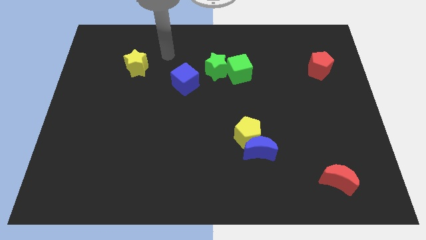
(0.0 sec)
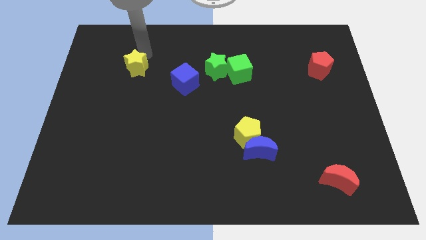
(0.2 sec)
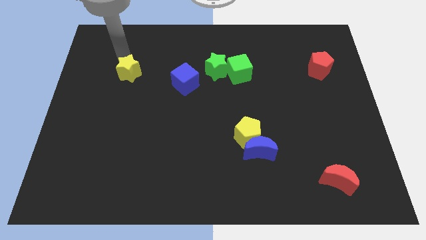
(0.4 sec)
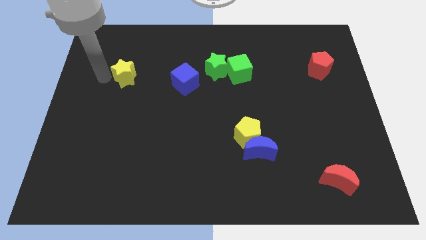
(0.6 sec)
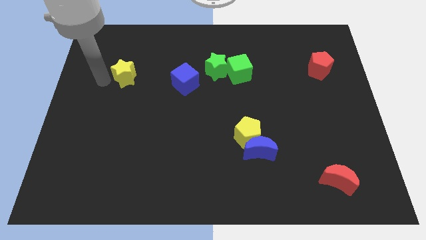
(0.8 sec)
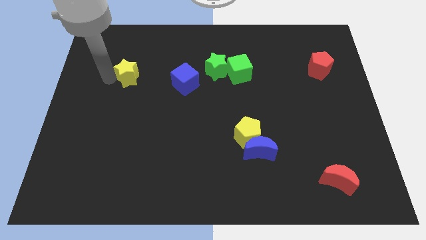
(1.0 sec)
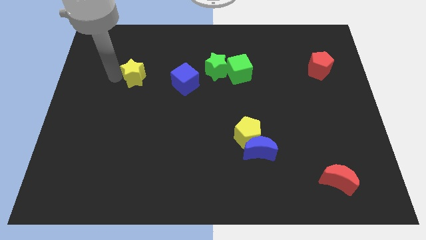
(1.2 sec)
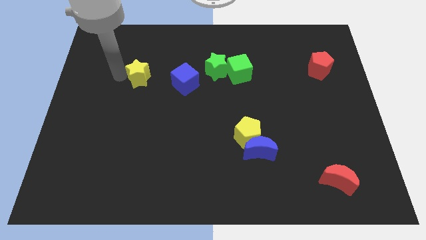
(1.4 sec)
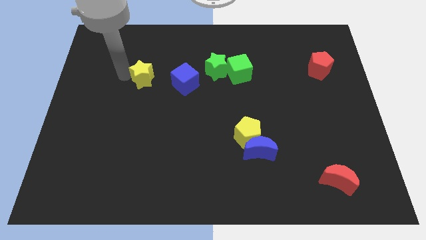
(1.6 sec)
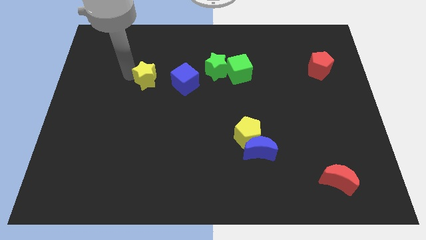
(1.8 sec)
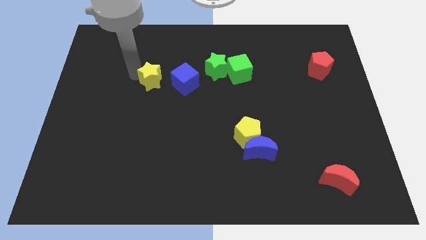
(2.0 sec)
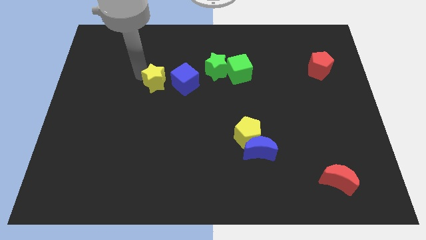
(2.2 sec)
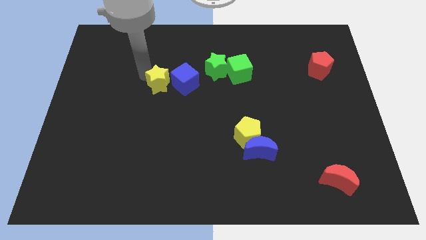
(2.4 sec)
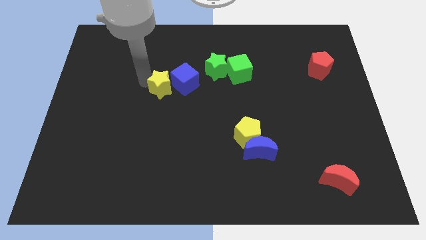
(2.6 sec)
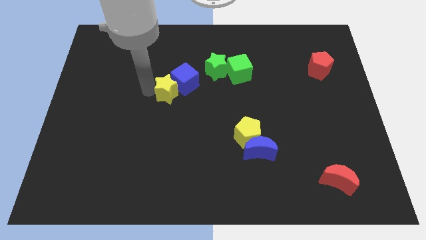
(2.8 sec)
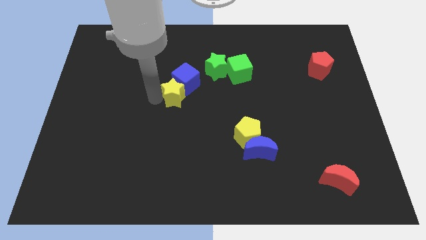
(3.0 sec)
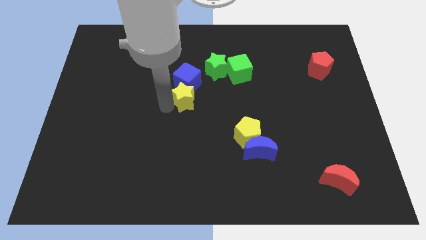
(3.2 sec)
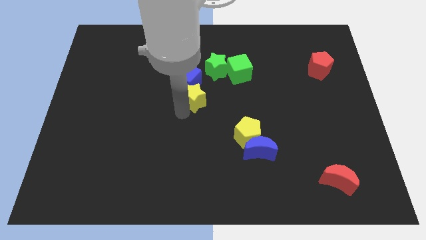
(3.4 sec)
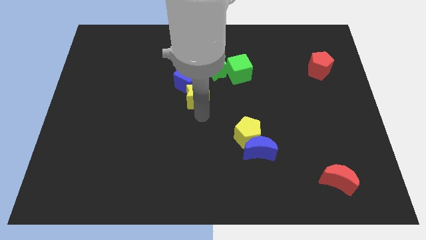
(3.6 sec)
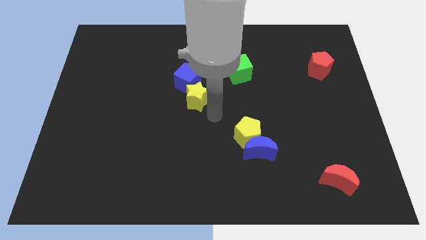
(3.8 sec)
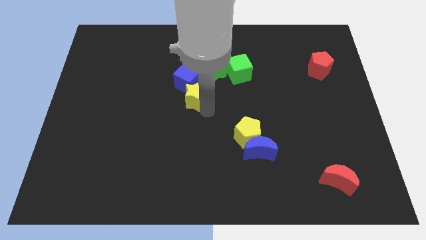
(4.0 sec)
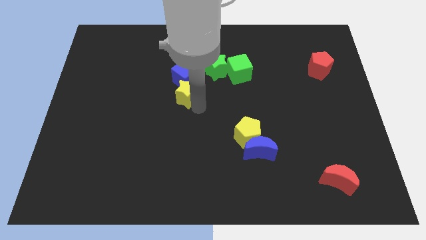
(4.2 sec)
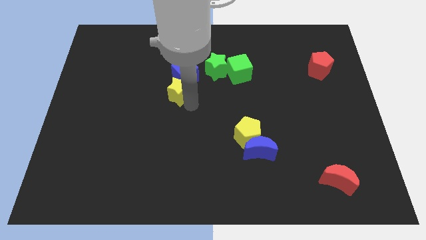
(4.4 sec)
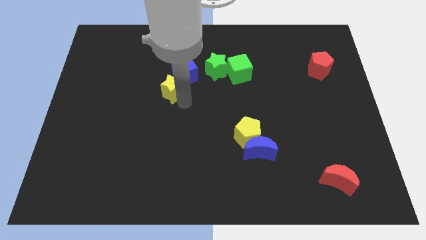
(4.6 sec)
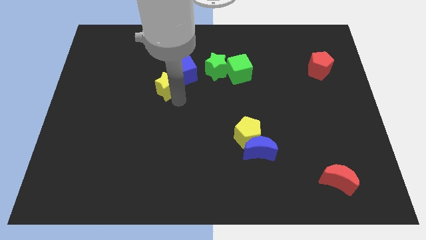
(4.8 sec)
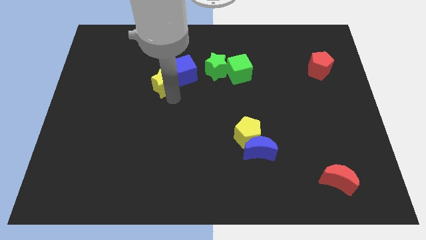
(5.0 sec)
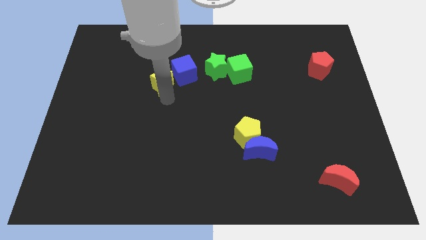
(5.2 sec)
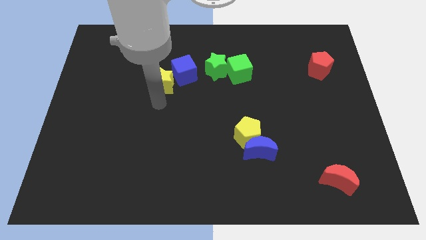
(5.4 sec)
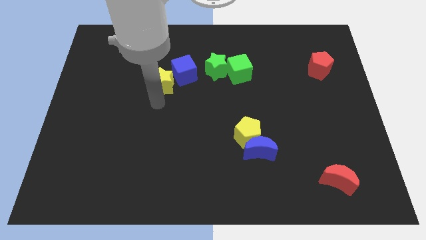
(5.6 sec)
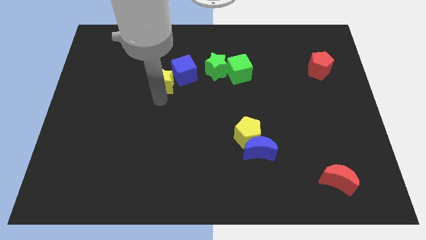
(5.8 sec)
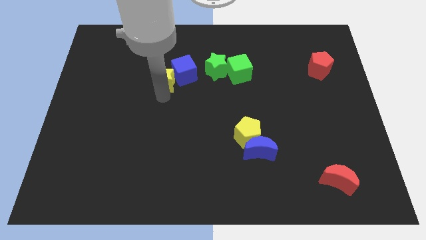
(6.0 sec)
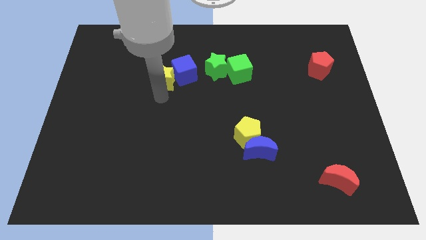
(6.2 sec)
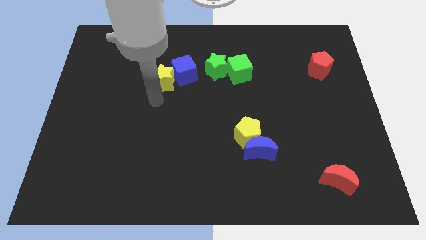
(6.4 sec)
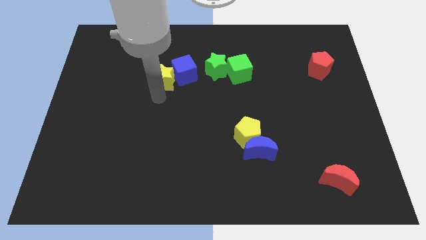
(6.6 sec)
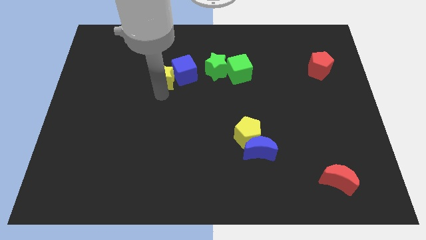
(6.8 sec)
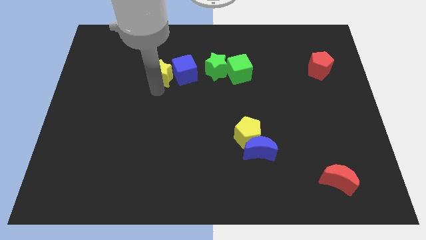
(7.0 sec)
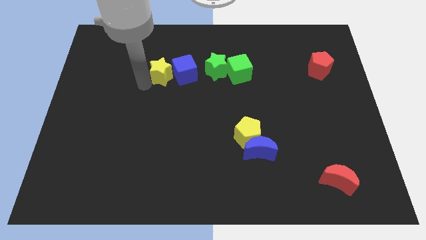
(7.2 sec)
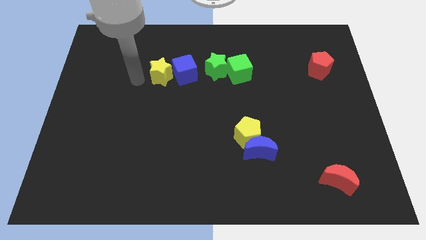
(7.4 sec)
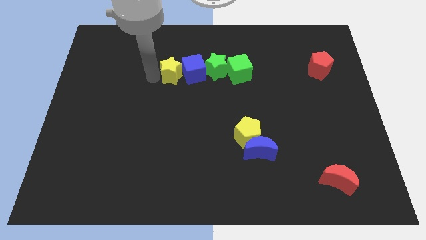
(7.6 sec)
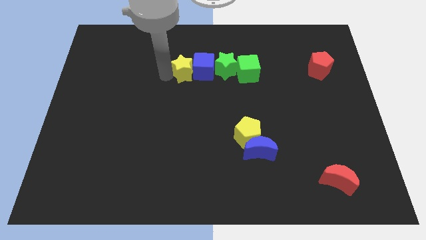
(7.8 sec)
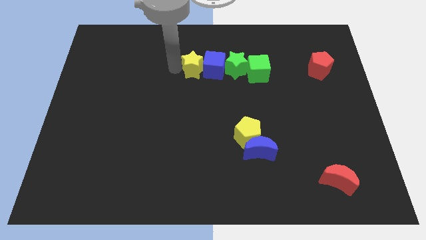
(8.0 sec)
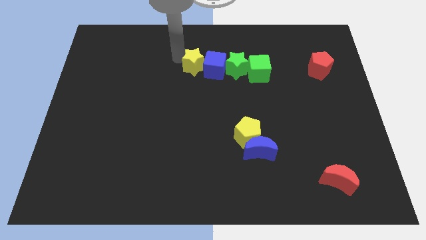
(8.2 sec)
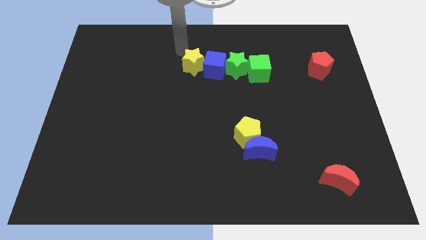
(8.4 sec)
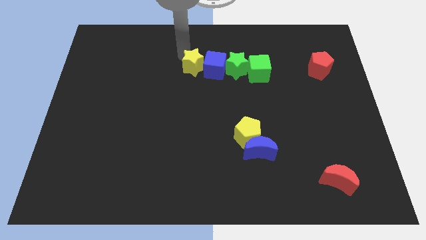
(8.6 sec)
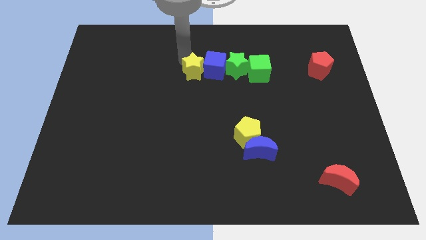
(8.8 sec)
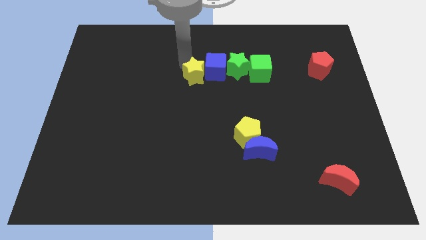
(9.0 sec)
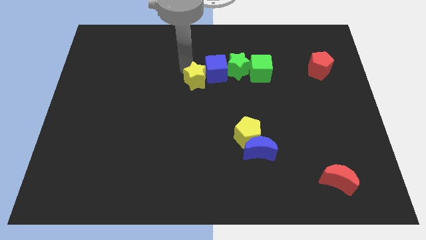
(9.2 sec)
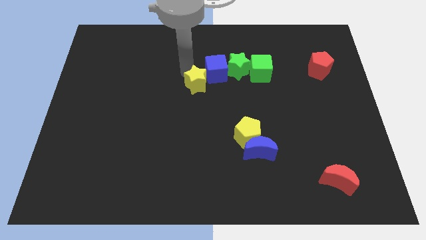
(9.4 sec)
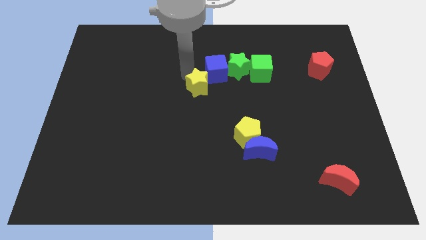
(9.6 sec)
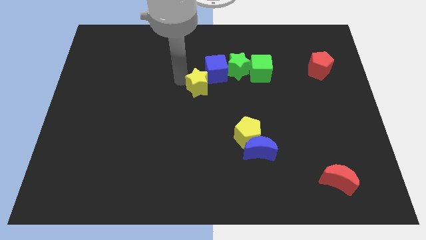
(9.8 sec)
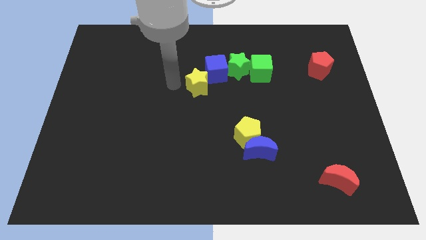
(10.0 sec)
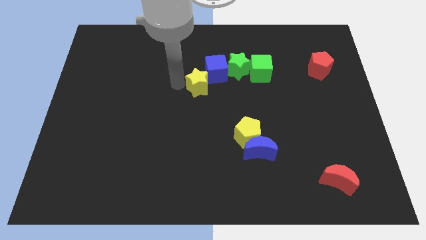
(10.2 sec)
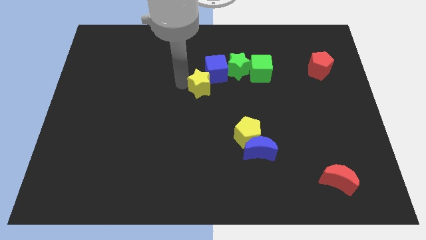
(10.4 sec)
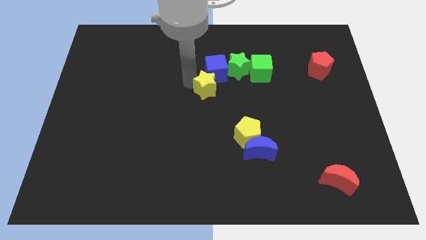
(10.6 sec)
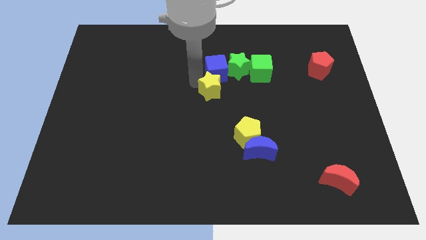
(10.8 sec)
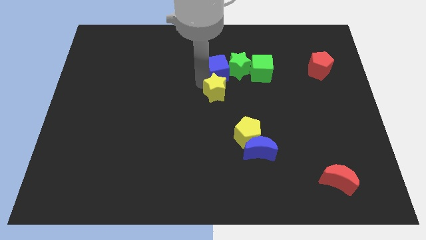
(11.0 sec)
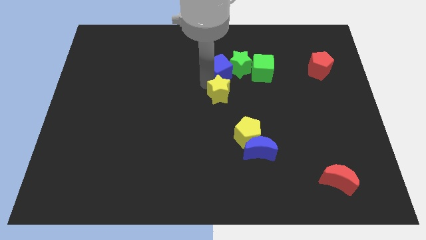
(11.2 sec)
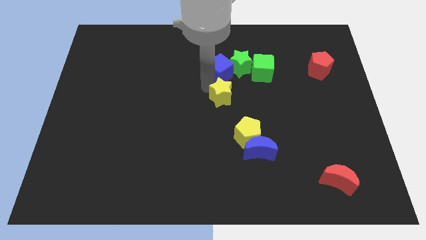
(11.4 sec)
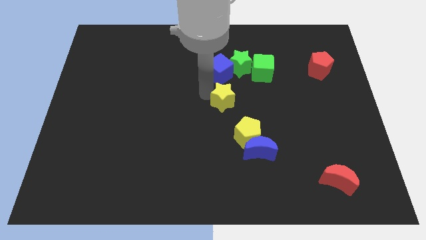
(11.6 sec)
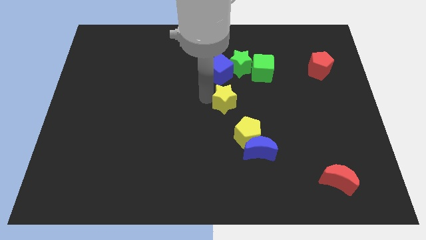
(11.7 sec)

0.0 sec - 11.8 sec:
push the yellow star to the top of the yellow pentagon

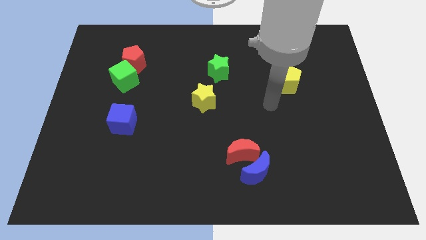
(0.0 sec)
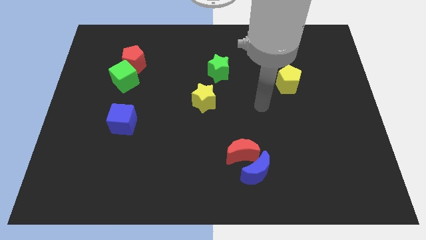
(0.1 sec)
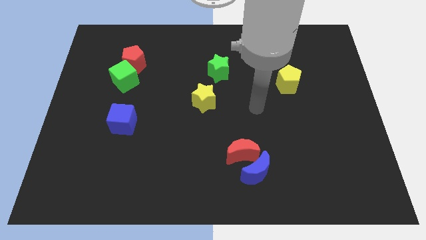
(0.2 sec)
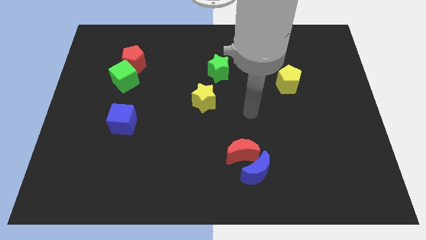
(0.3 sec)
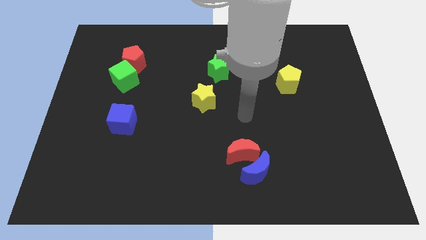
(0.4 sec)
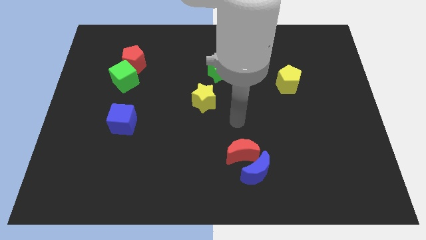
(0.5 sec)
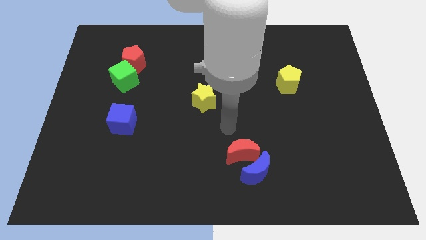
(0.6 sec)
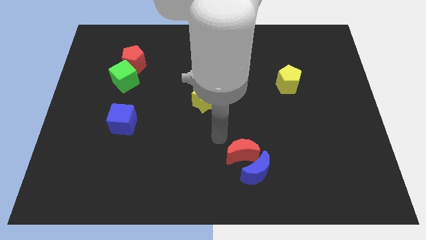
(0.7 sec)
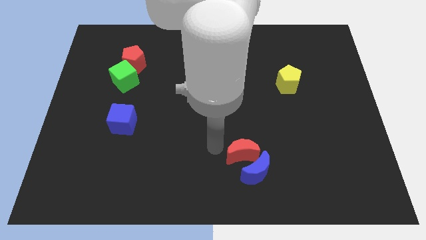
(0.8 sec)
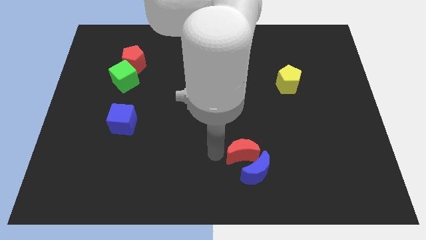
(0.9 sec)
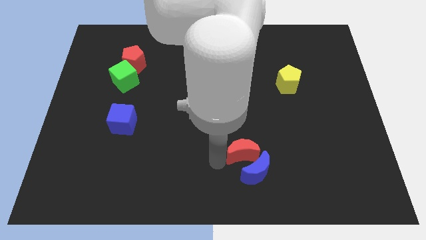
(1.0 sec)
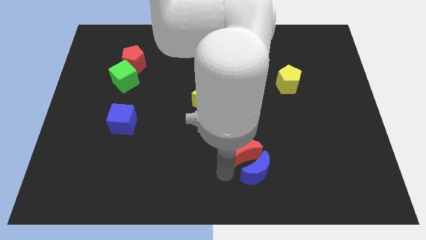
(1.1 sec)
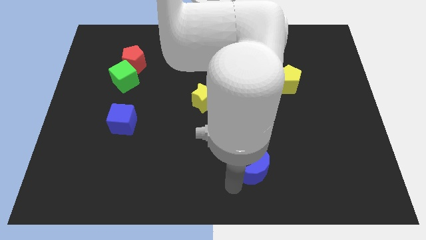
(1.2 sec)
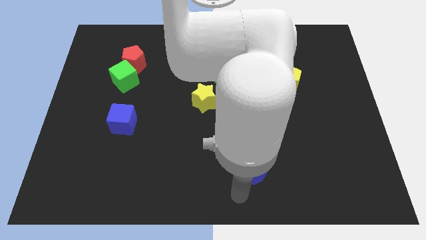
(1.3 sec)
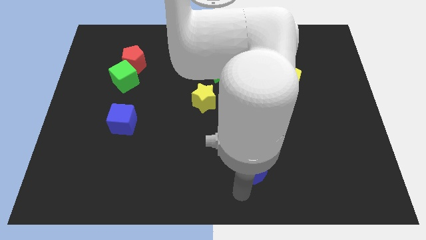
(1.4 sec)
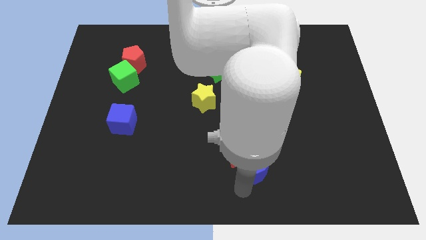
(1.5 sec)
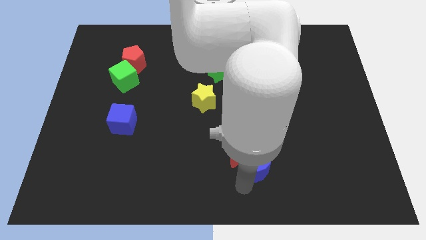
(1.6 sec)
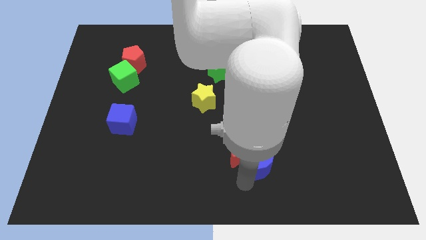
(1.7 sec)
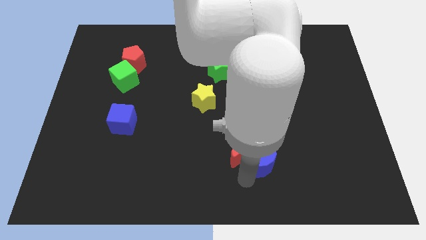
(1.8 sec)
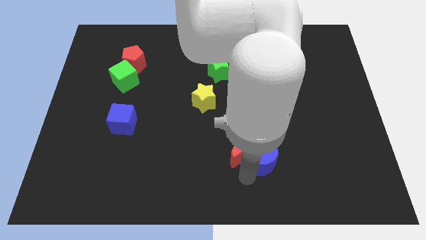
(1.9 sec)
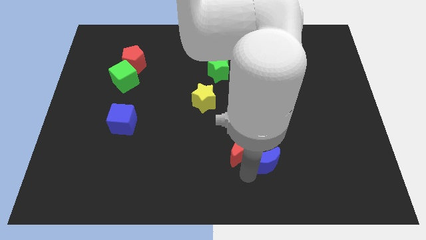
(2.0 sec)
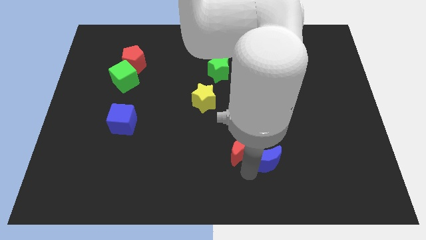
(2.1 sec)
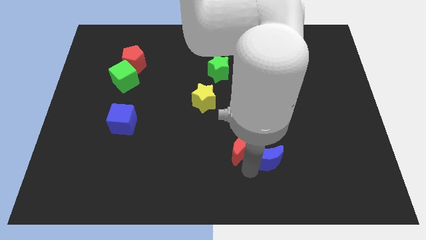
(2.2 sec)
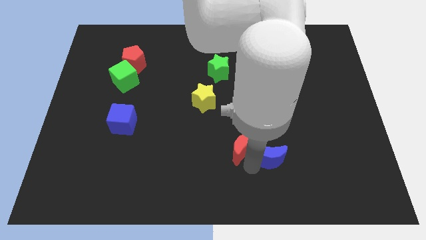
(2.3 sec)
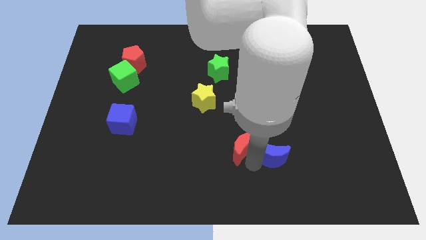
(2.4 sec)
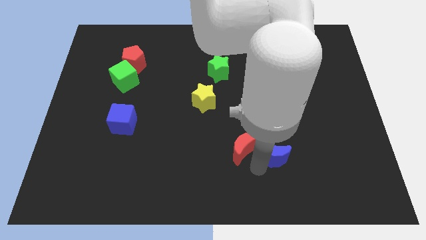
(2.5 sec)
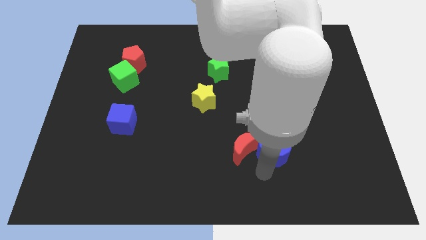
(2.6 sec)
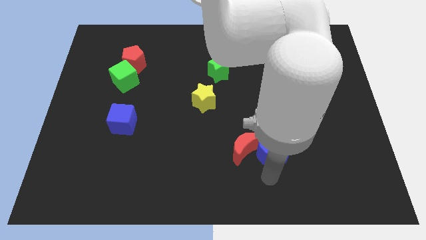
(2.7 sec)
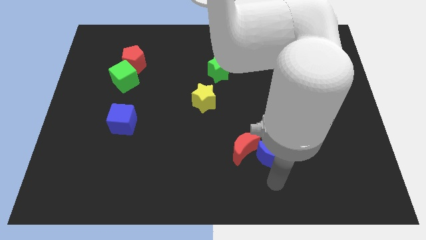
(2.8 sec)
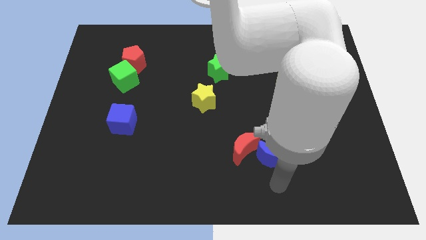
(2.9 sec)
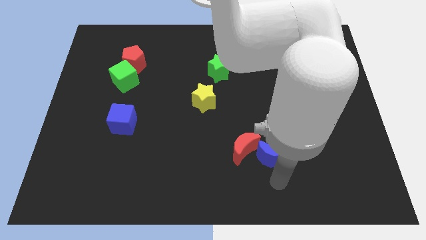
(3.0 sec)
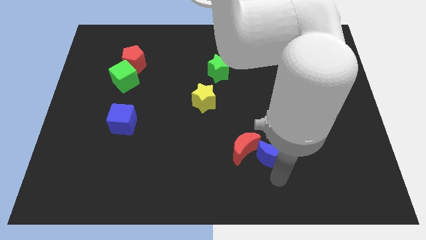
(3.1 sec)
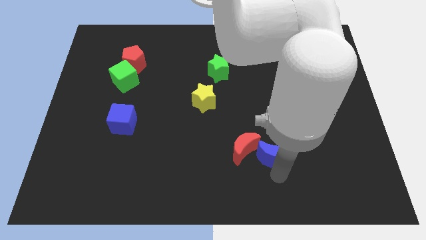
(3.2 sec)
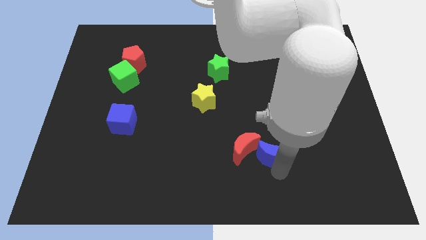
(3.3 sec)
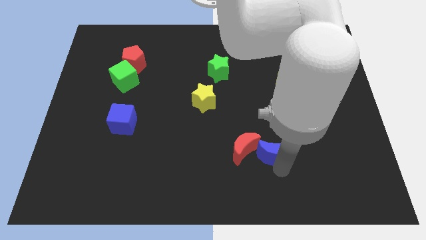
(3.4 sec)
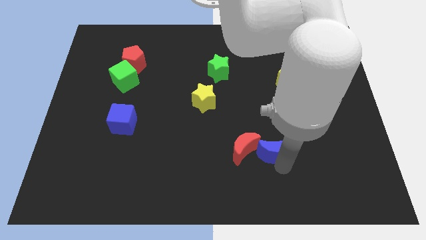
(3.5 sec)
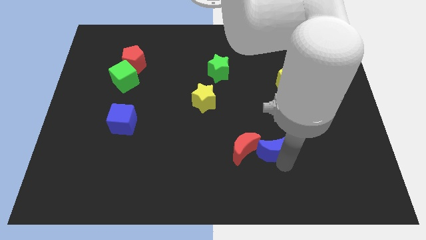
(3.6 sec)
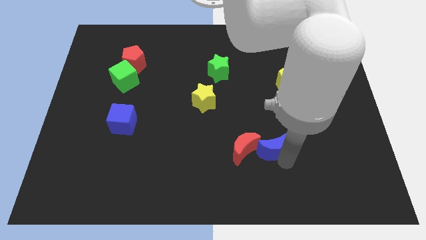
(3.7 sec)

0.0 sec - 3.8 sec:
move the blue moon to the top right of the red moon
